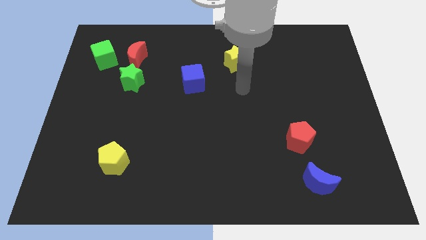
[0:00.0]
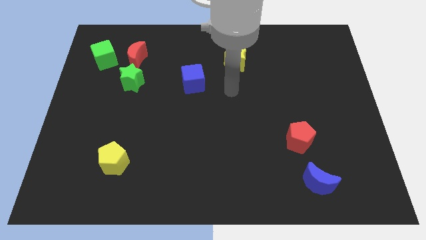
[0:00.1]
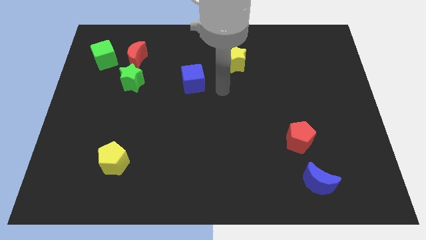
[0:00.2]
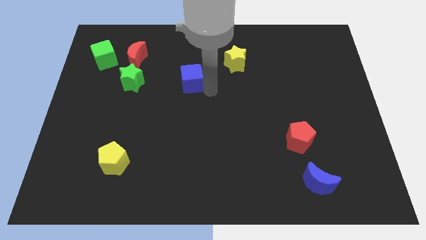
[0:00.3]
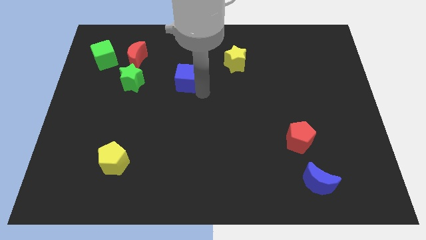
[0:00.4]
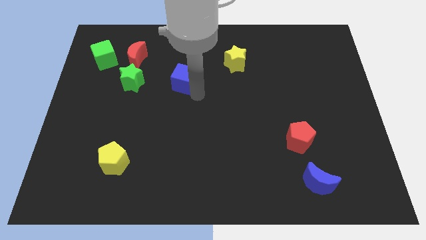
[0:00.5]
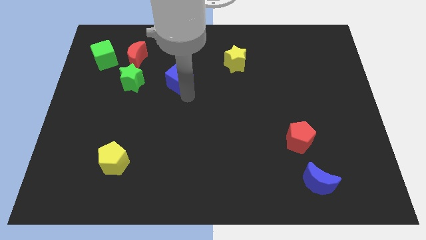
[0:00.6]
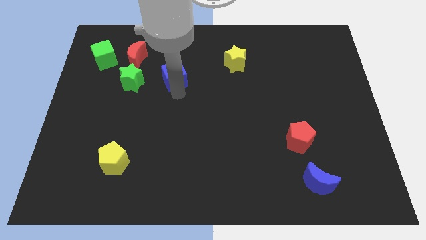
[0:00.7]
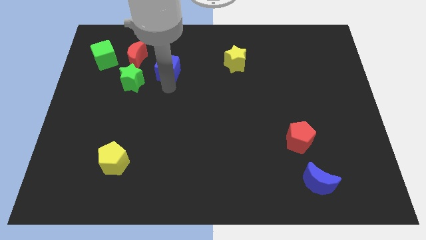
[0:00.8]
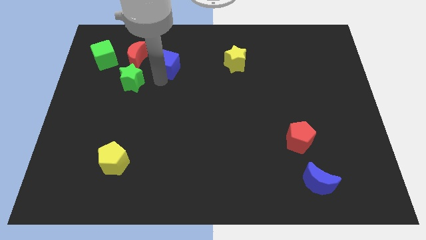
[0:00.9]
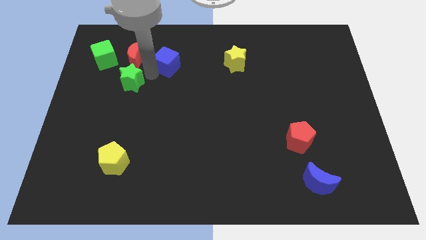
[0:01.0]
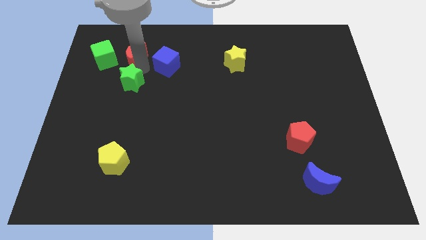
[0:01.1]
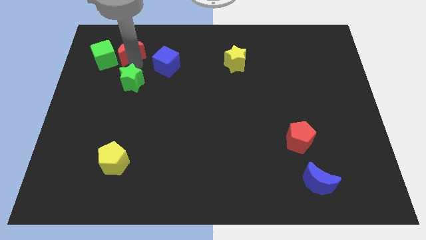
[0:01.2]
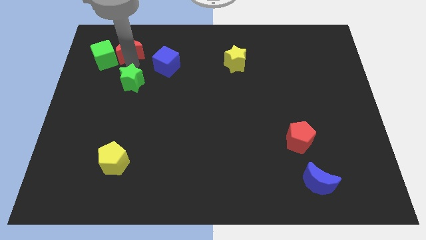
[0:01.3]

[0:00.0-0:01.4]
pull the green star apart from the red moon

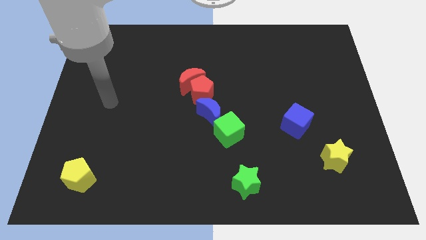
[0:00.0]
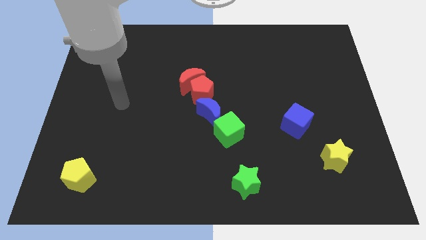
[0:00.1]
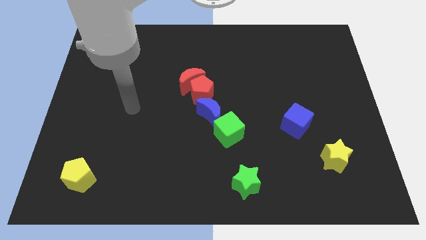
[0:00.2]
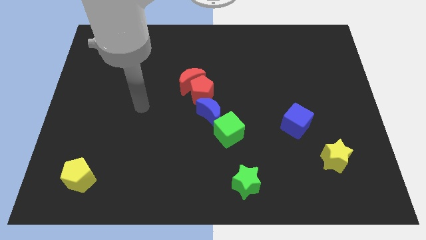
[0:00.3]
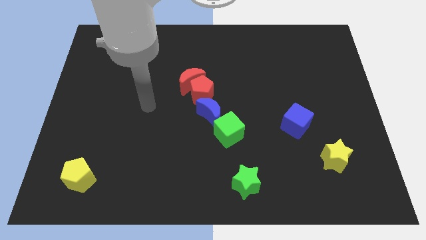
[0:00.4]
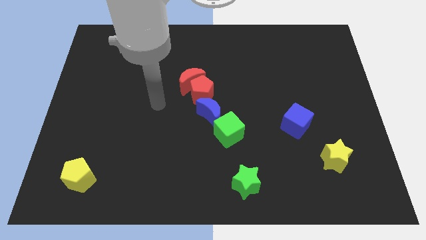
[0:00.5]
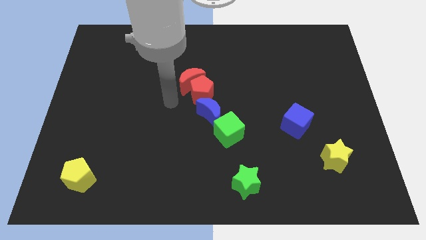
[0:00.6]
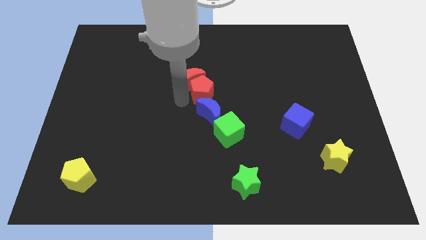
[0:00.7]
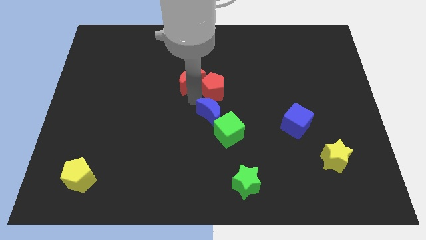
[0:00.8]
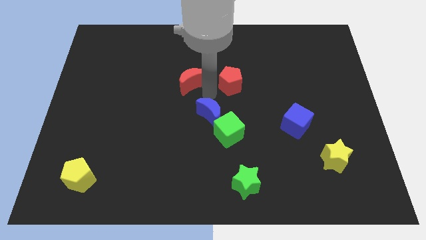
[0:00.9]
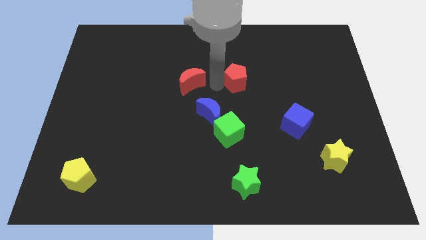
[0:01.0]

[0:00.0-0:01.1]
move the red moon away from the red pentagon

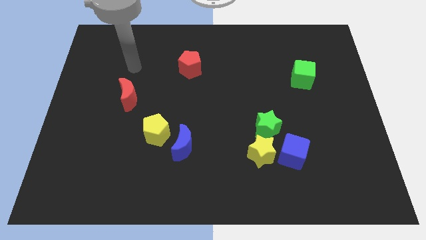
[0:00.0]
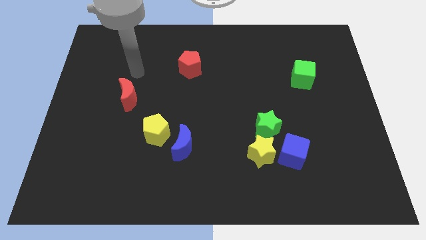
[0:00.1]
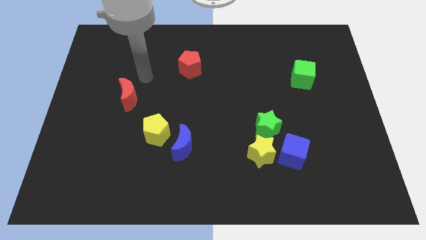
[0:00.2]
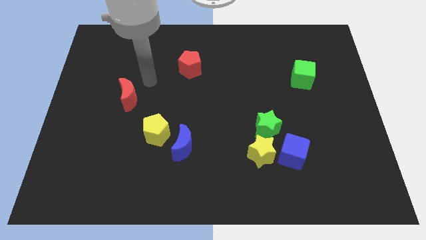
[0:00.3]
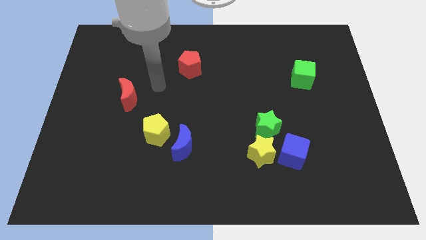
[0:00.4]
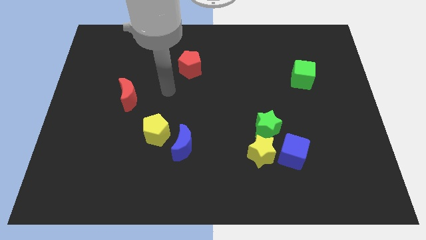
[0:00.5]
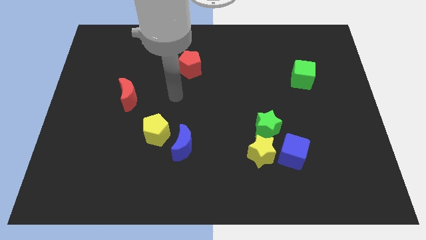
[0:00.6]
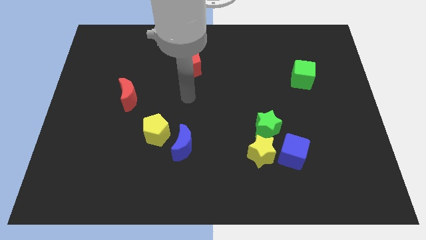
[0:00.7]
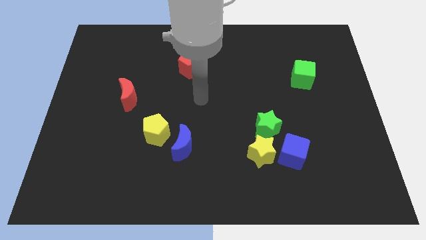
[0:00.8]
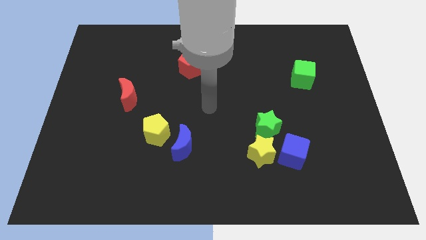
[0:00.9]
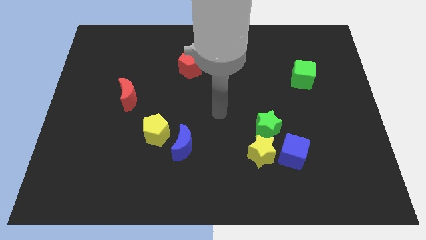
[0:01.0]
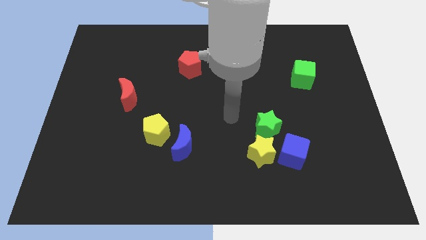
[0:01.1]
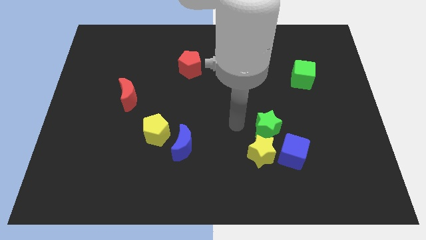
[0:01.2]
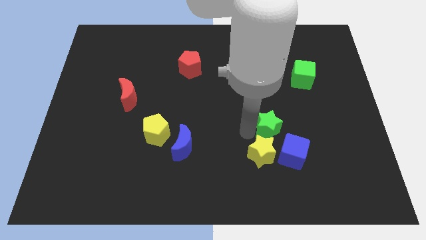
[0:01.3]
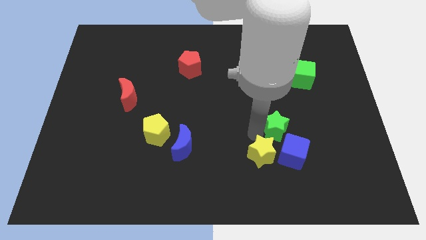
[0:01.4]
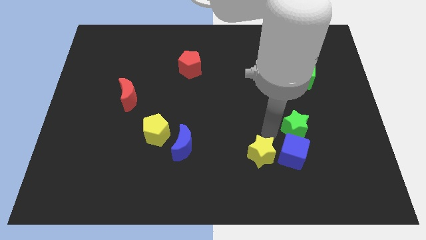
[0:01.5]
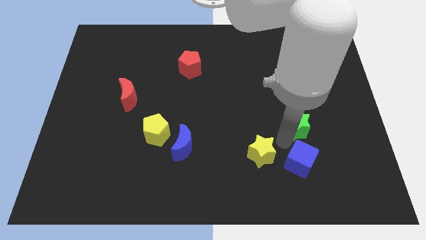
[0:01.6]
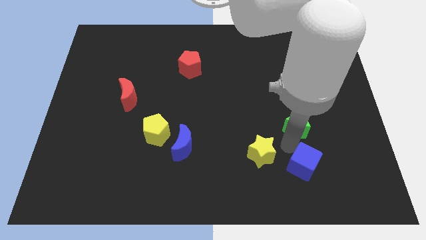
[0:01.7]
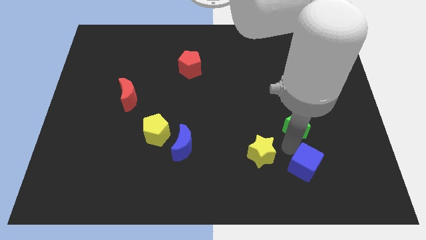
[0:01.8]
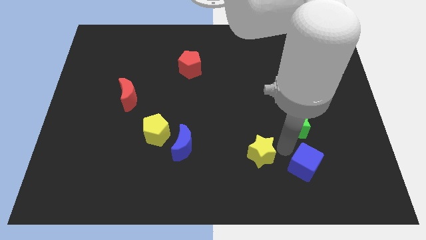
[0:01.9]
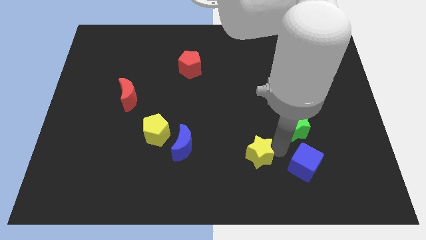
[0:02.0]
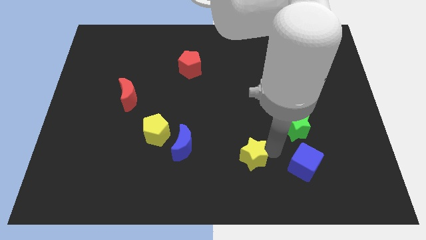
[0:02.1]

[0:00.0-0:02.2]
move the yellow star away from the green star and blue cube

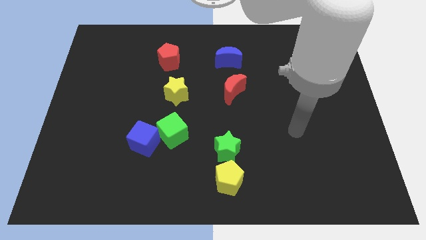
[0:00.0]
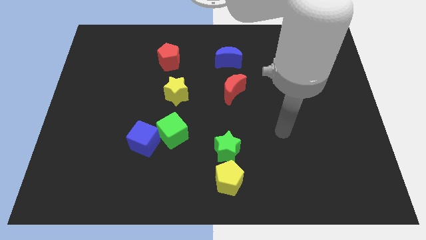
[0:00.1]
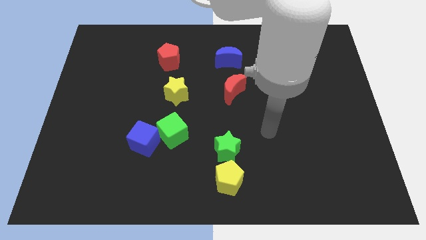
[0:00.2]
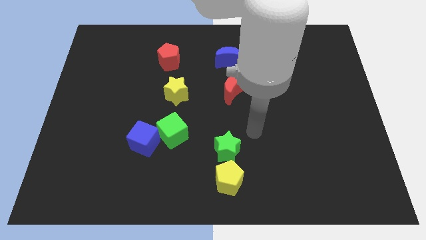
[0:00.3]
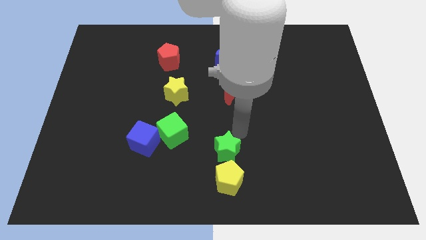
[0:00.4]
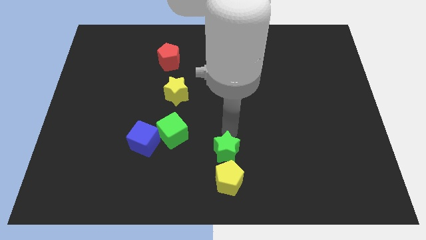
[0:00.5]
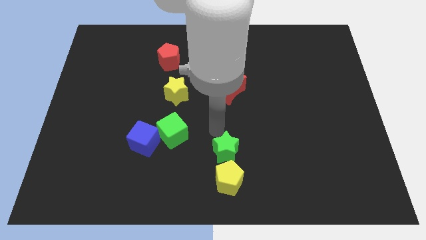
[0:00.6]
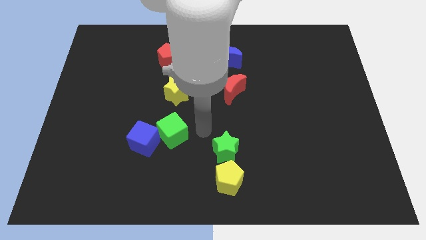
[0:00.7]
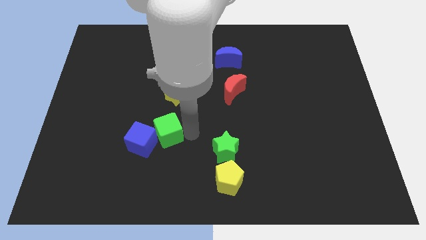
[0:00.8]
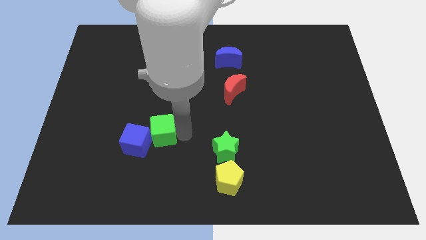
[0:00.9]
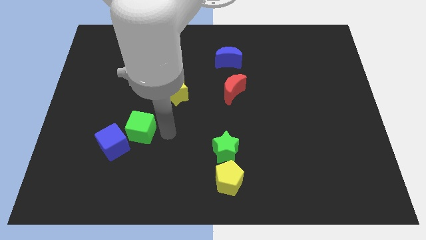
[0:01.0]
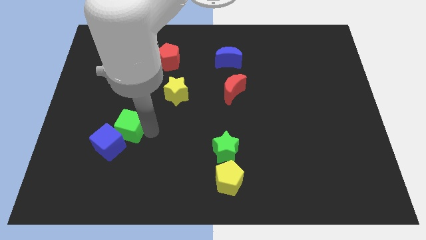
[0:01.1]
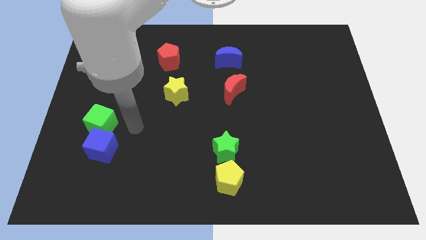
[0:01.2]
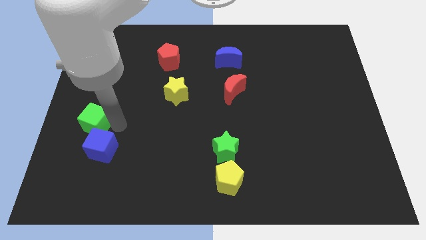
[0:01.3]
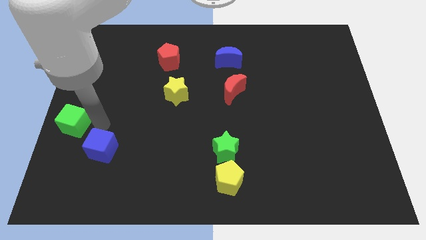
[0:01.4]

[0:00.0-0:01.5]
separate the blue cube from the green cube

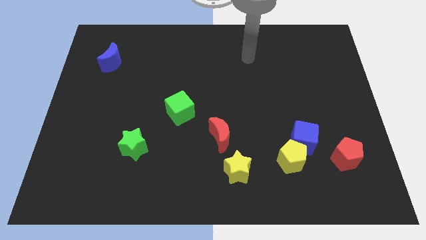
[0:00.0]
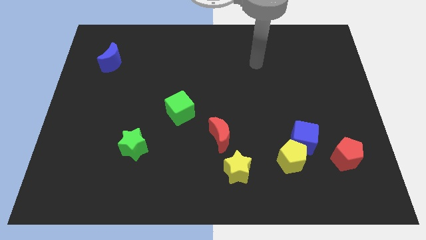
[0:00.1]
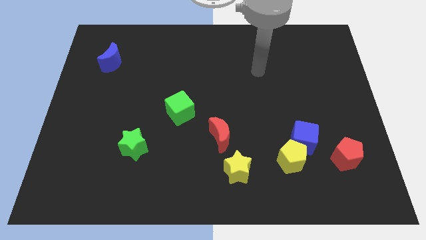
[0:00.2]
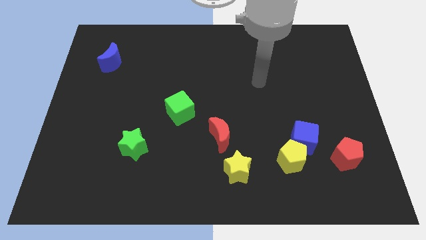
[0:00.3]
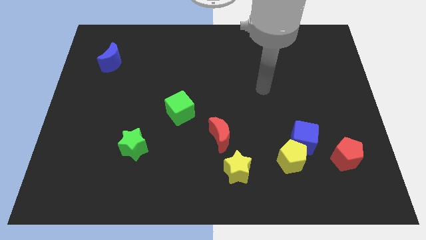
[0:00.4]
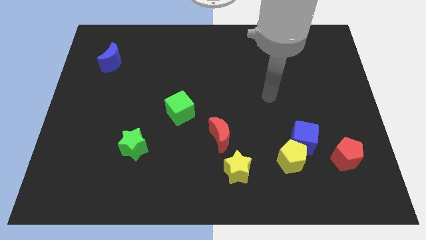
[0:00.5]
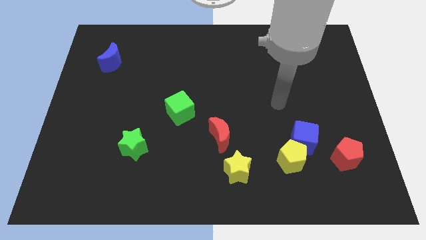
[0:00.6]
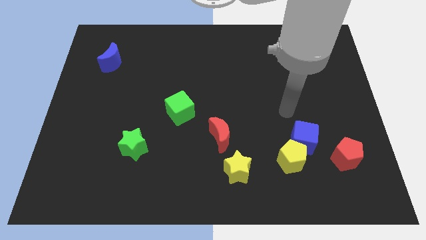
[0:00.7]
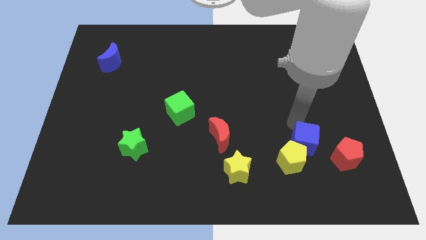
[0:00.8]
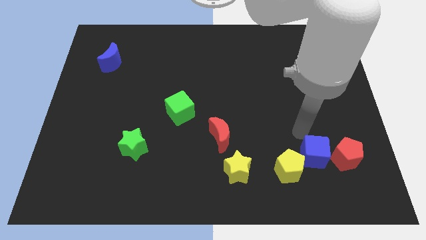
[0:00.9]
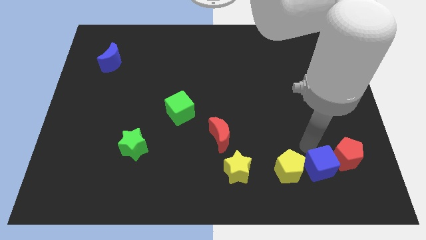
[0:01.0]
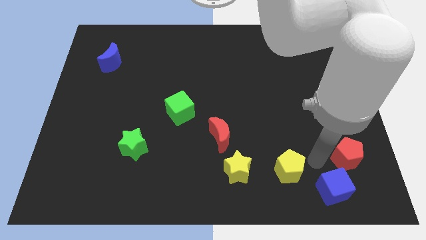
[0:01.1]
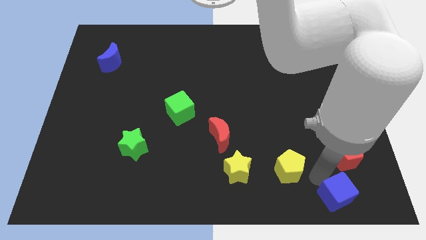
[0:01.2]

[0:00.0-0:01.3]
pull the yellow pentagon apart from the blue cube

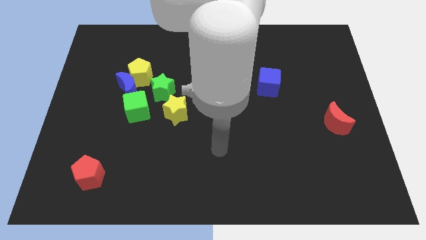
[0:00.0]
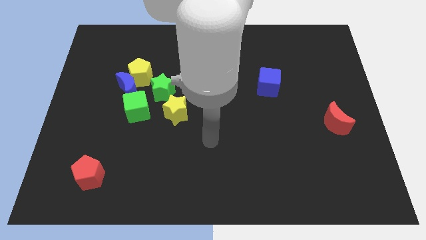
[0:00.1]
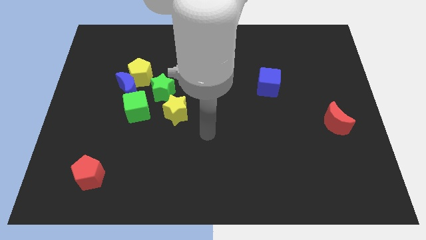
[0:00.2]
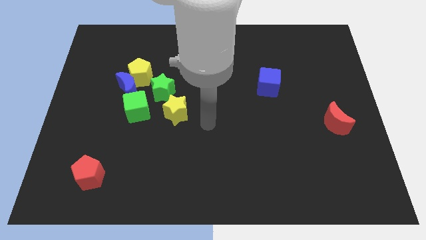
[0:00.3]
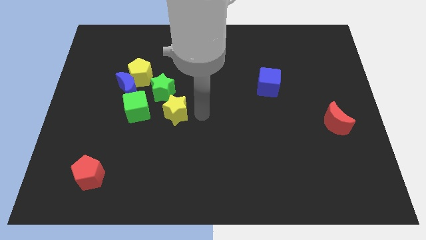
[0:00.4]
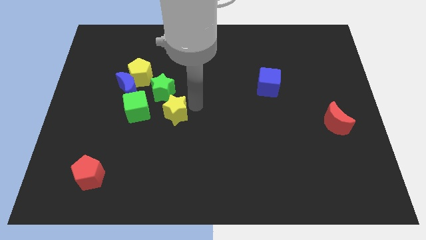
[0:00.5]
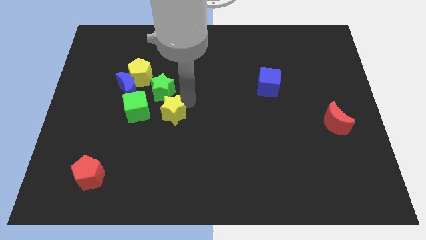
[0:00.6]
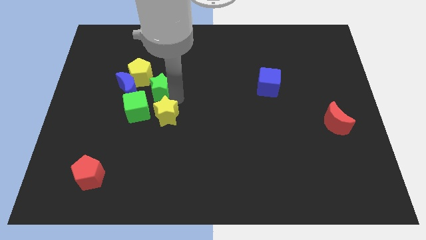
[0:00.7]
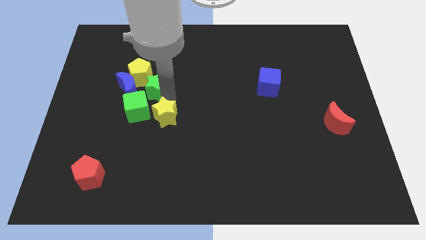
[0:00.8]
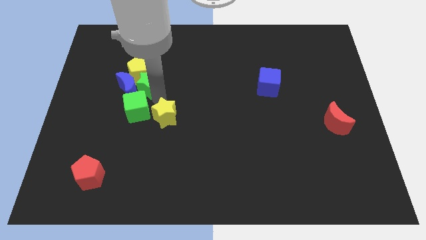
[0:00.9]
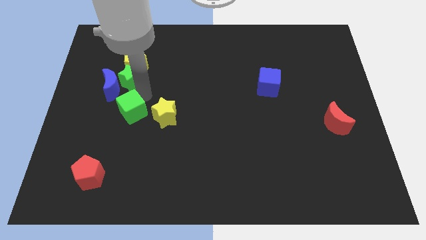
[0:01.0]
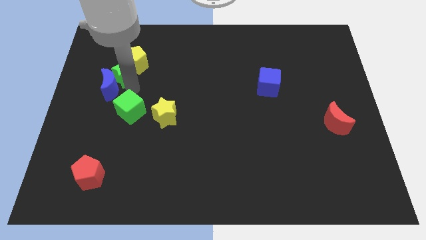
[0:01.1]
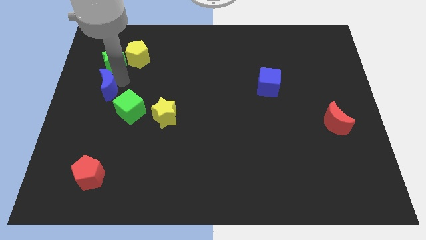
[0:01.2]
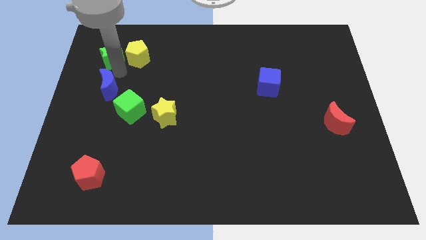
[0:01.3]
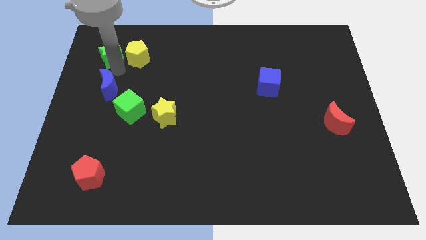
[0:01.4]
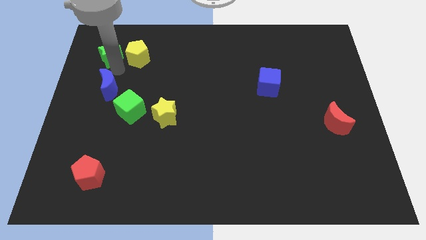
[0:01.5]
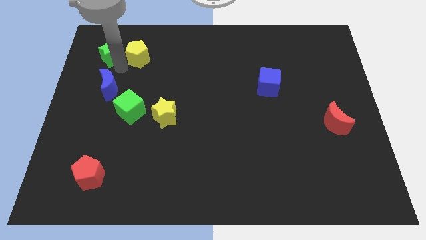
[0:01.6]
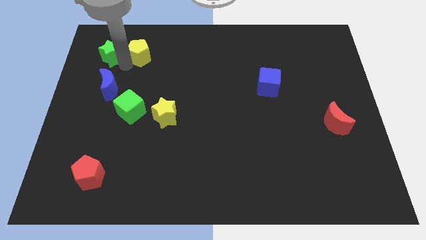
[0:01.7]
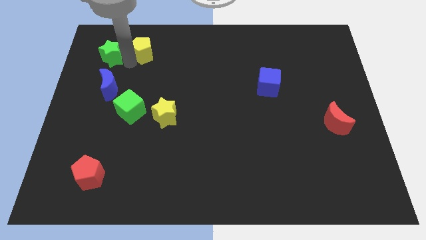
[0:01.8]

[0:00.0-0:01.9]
pull the yellow pentagon apart from the blue moon and green star
